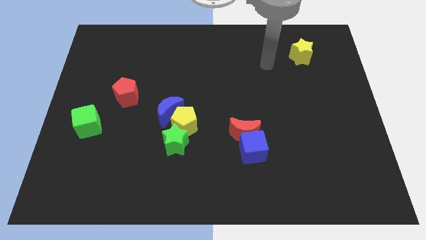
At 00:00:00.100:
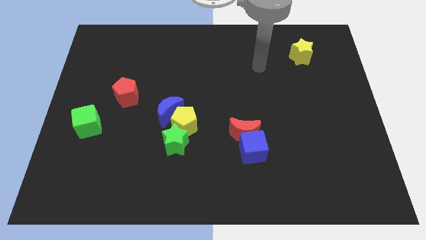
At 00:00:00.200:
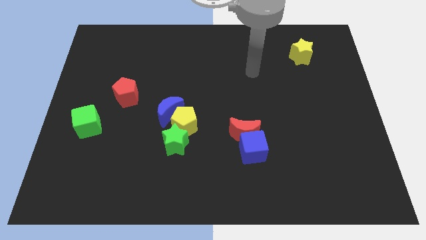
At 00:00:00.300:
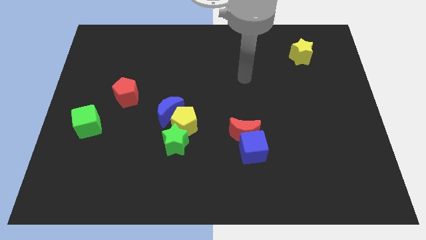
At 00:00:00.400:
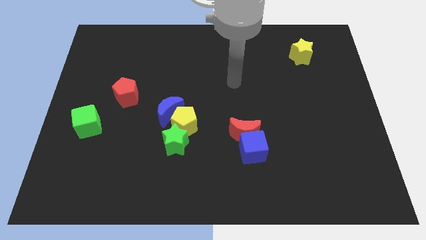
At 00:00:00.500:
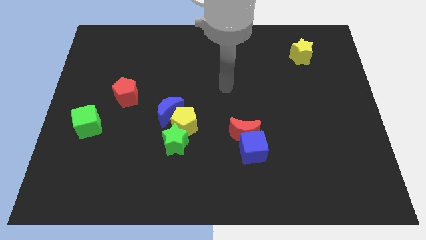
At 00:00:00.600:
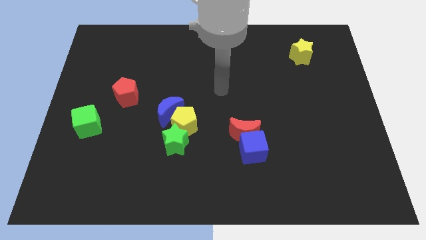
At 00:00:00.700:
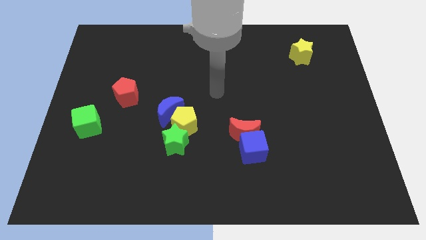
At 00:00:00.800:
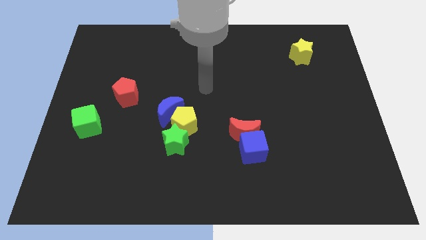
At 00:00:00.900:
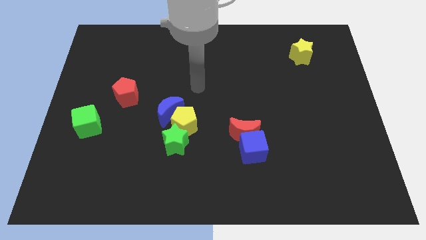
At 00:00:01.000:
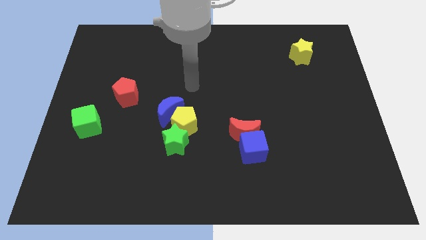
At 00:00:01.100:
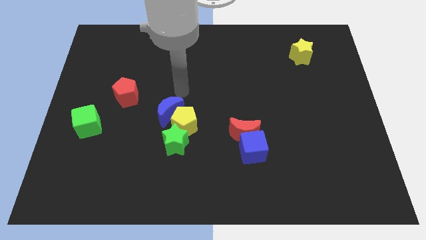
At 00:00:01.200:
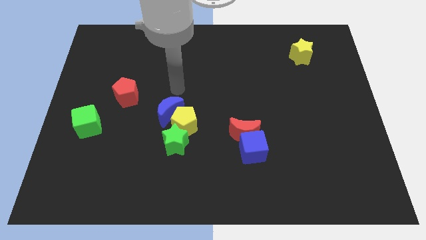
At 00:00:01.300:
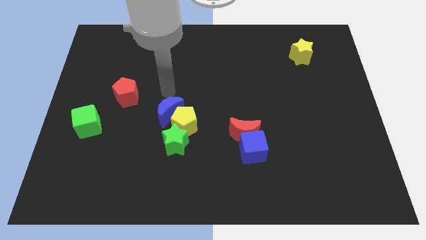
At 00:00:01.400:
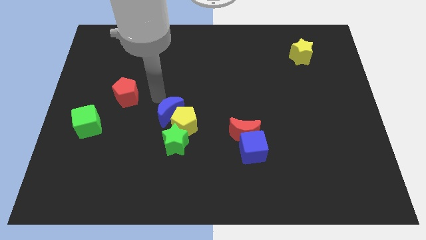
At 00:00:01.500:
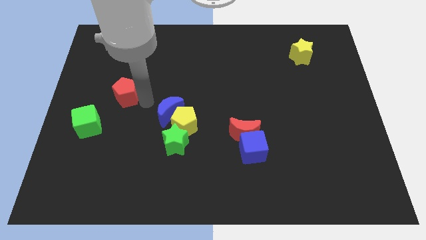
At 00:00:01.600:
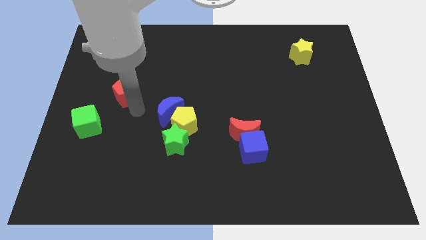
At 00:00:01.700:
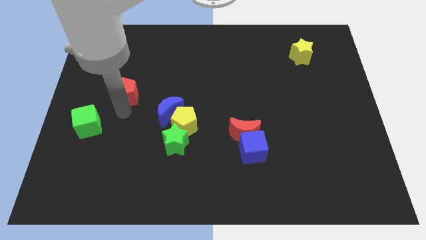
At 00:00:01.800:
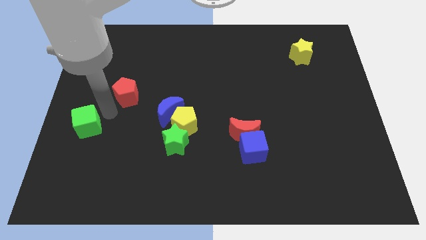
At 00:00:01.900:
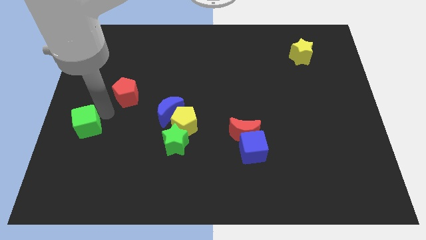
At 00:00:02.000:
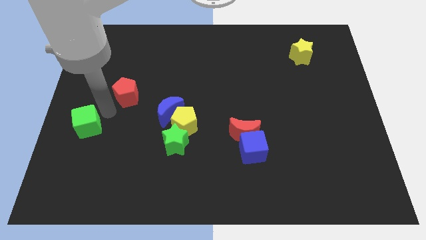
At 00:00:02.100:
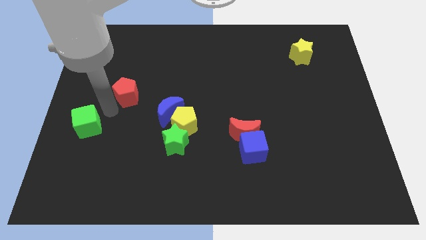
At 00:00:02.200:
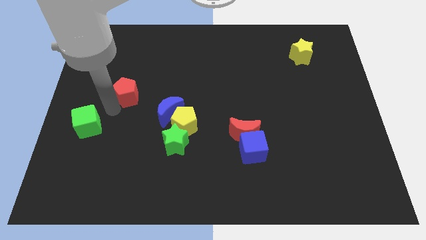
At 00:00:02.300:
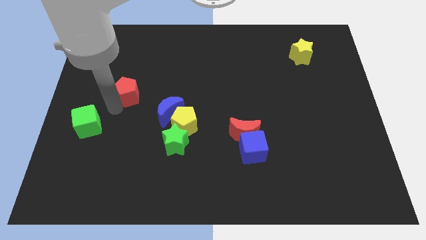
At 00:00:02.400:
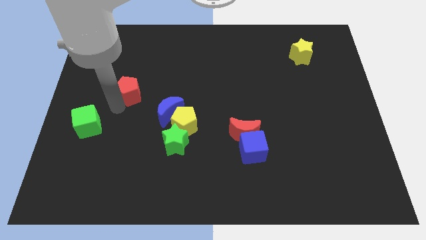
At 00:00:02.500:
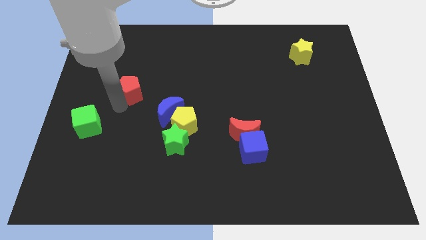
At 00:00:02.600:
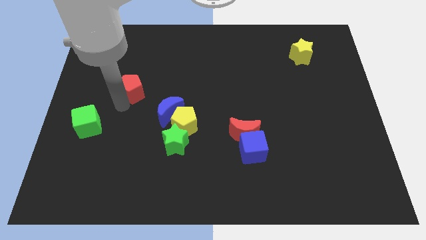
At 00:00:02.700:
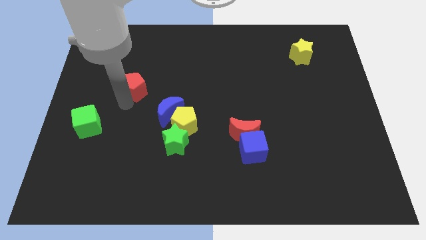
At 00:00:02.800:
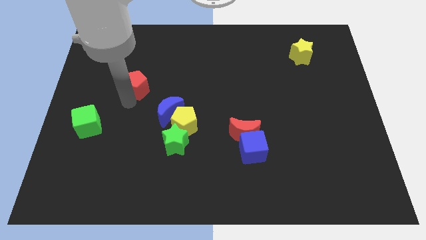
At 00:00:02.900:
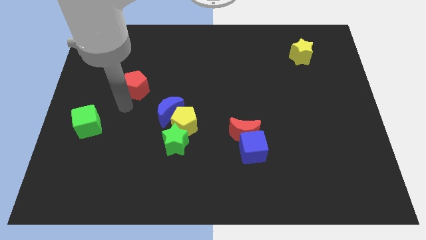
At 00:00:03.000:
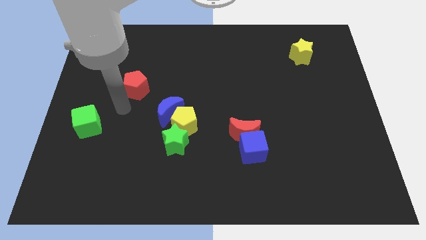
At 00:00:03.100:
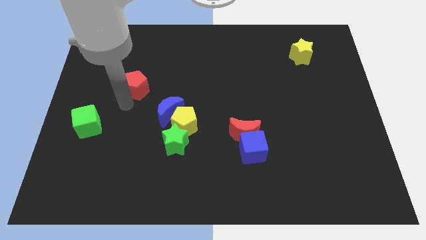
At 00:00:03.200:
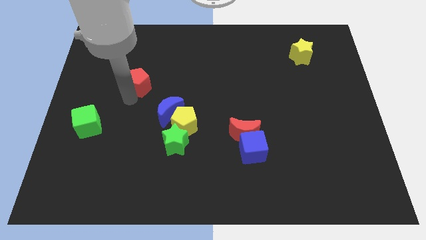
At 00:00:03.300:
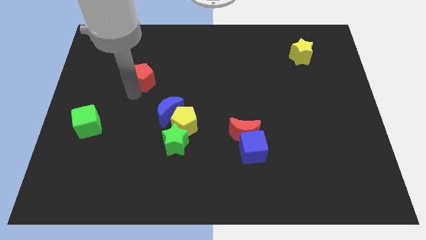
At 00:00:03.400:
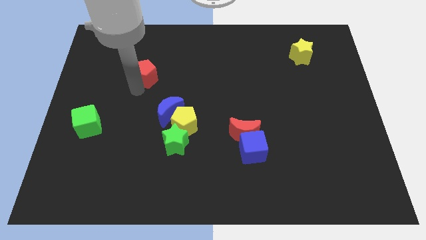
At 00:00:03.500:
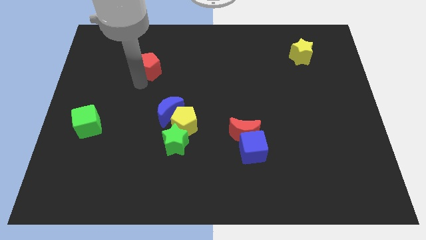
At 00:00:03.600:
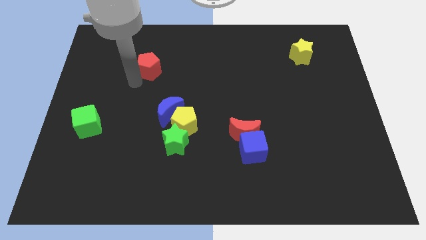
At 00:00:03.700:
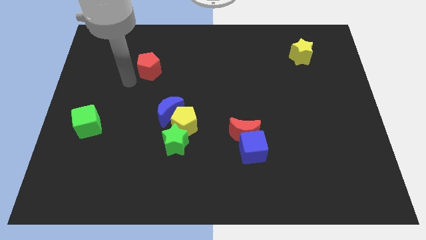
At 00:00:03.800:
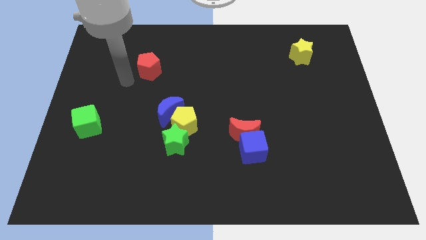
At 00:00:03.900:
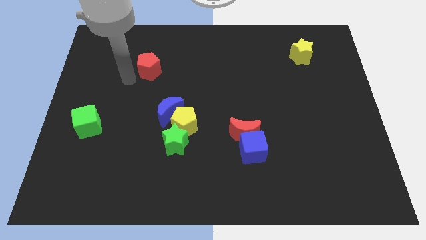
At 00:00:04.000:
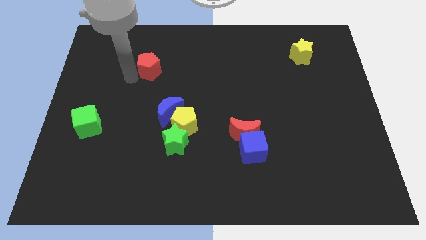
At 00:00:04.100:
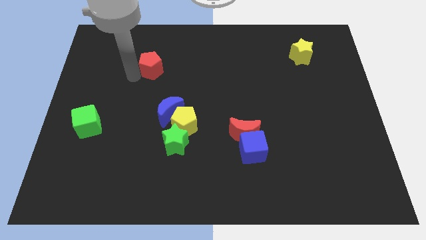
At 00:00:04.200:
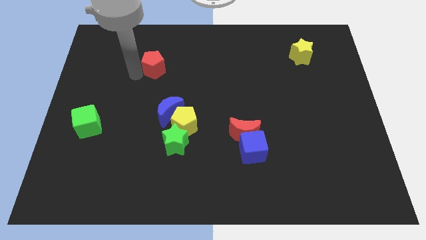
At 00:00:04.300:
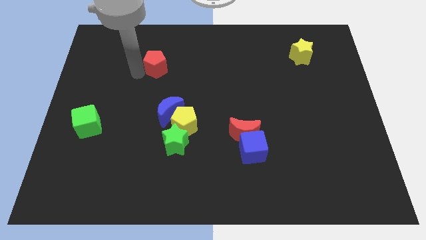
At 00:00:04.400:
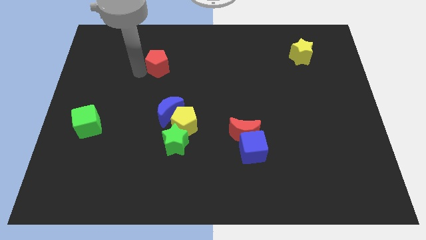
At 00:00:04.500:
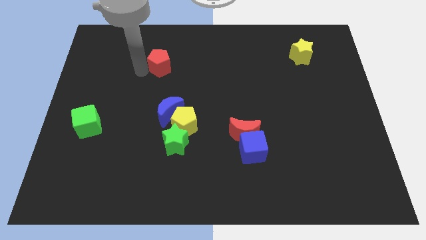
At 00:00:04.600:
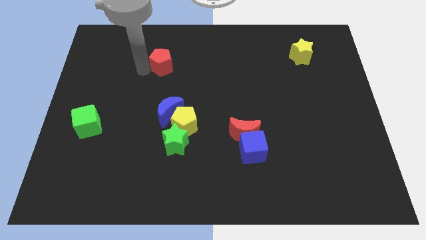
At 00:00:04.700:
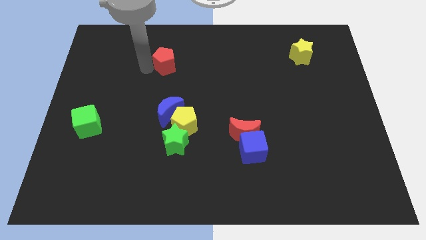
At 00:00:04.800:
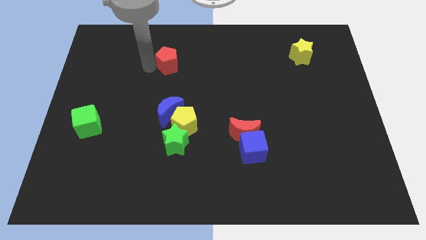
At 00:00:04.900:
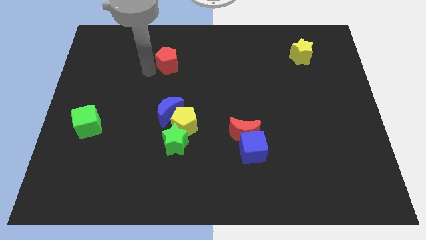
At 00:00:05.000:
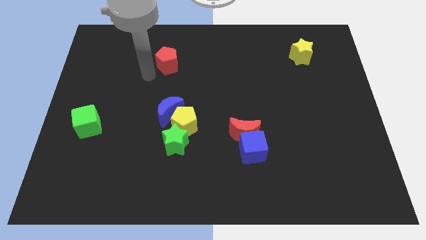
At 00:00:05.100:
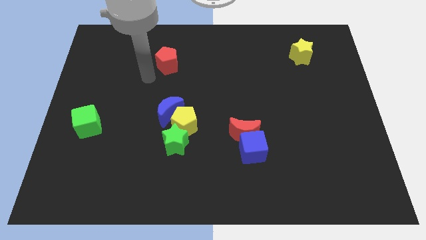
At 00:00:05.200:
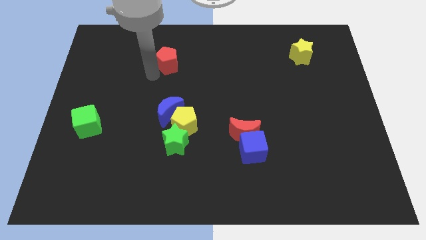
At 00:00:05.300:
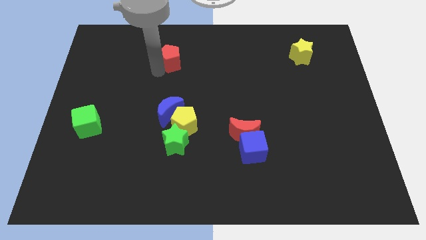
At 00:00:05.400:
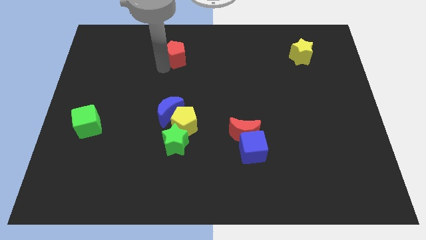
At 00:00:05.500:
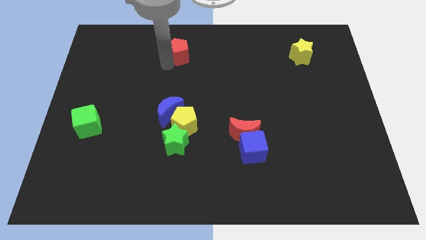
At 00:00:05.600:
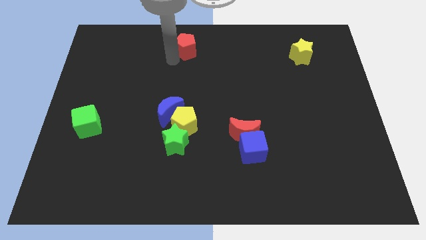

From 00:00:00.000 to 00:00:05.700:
move the red pentagon to the top

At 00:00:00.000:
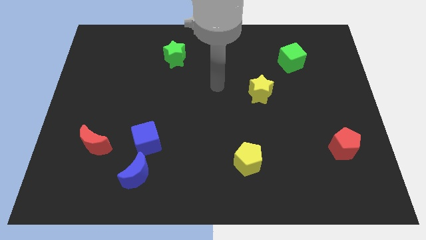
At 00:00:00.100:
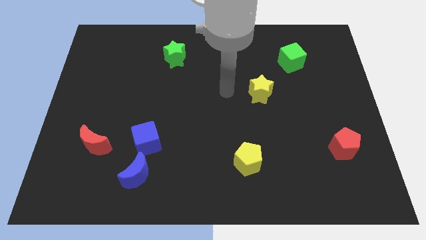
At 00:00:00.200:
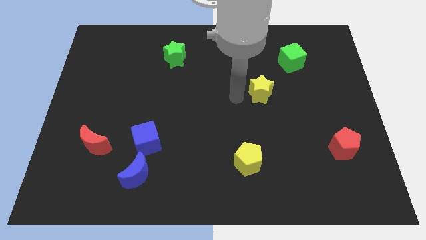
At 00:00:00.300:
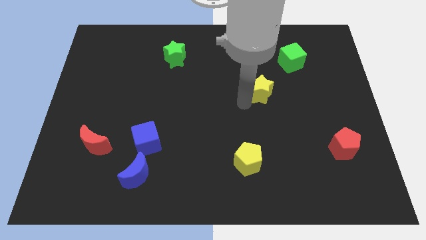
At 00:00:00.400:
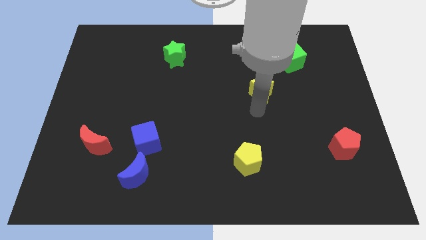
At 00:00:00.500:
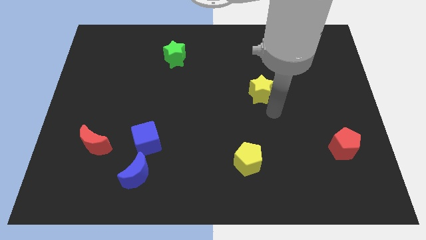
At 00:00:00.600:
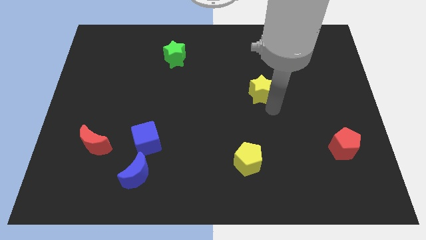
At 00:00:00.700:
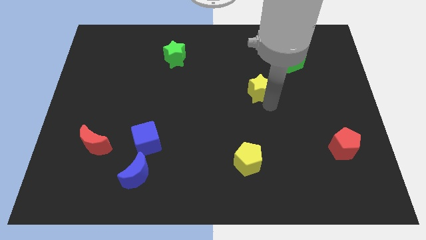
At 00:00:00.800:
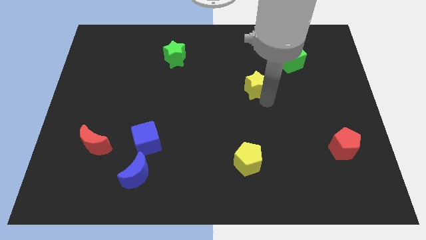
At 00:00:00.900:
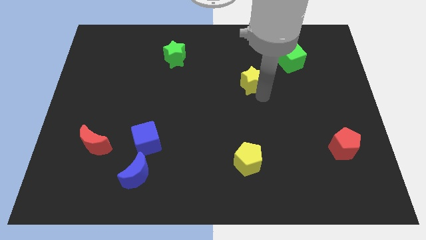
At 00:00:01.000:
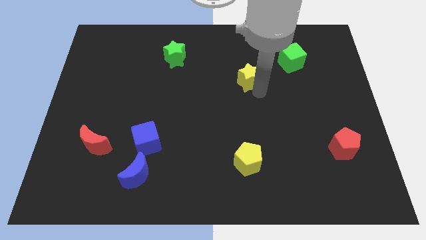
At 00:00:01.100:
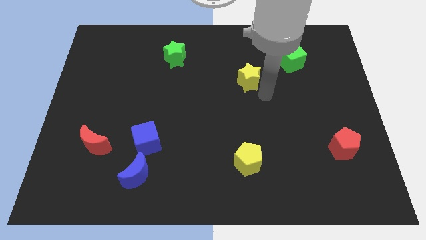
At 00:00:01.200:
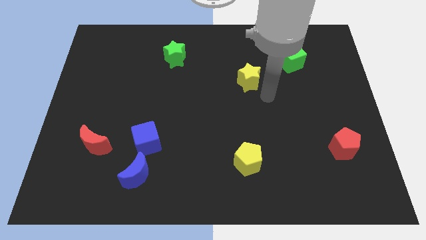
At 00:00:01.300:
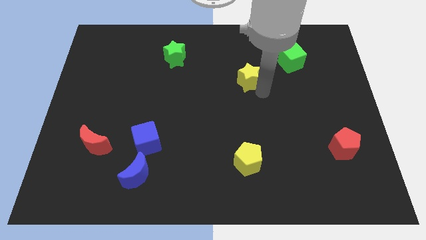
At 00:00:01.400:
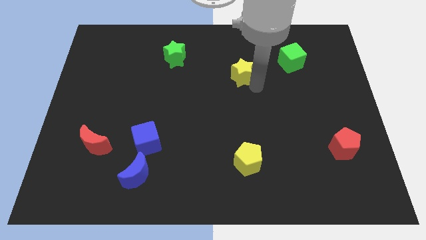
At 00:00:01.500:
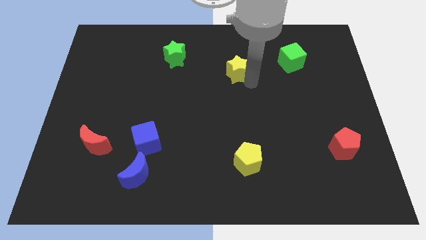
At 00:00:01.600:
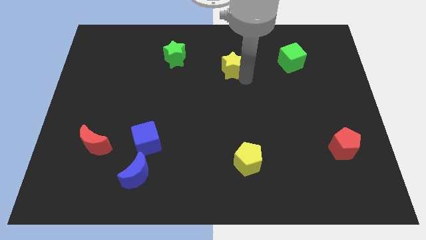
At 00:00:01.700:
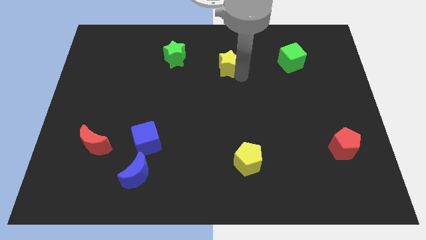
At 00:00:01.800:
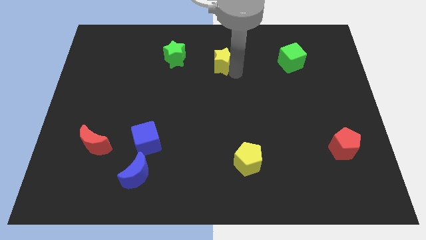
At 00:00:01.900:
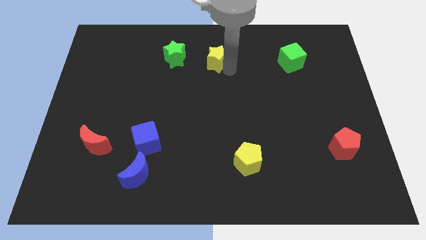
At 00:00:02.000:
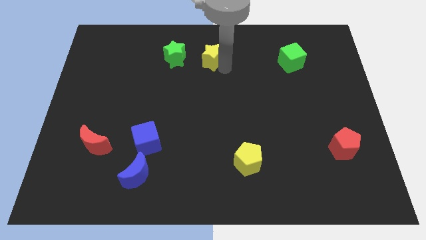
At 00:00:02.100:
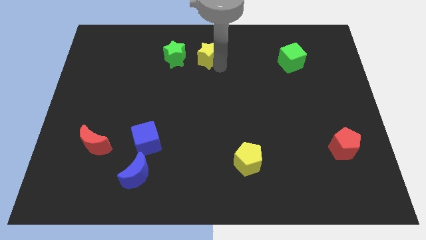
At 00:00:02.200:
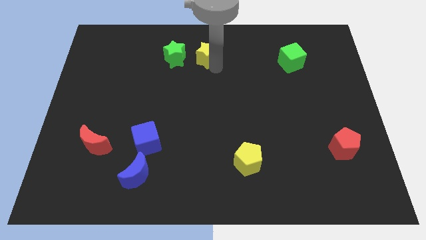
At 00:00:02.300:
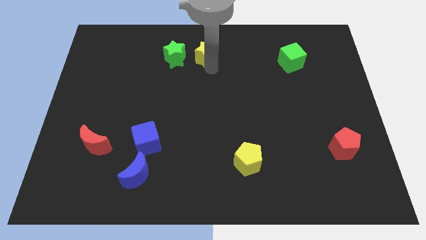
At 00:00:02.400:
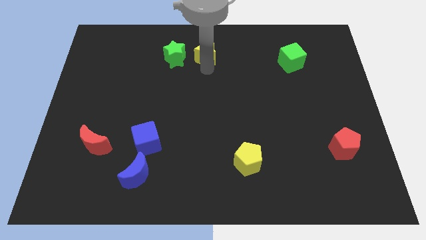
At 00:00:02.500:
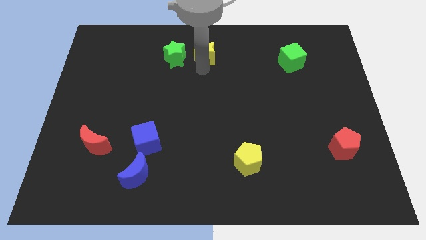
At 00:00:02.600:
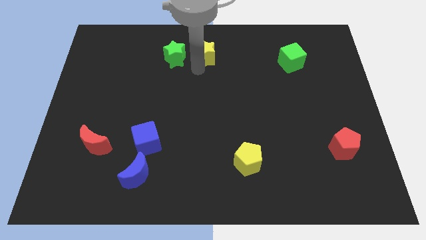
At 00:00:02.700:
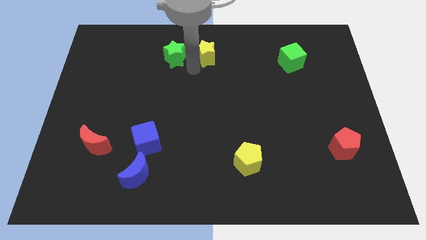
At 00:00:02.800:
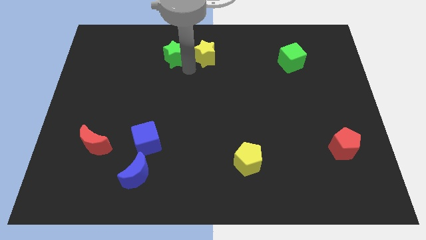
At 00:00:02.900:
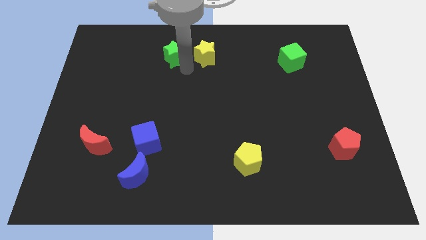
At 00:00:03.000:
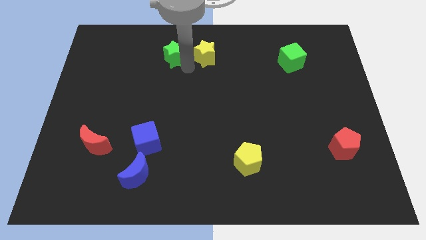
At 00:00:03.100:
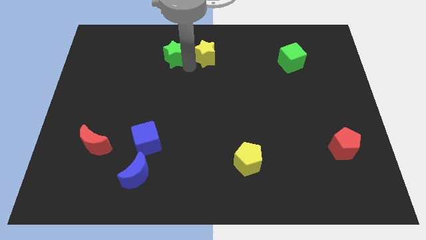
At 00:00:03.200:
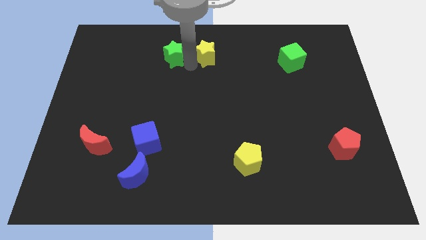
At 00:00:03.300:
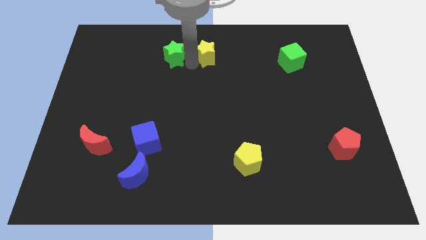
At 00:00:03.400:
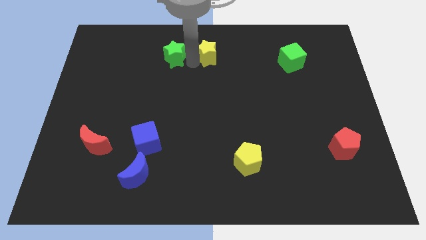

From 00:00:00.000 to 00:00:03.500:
move the yellow star to the towards your base
